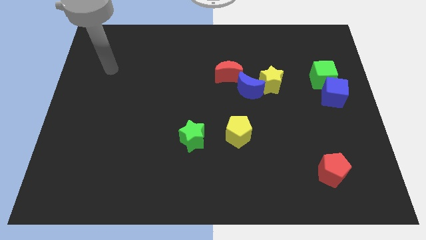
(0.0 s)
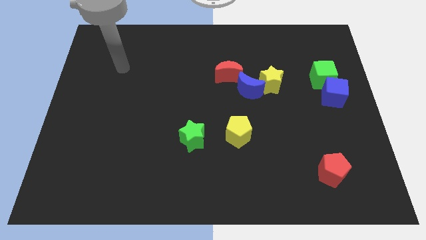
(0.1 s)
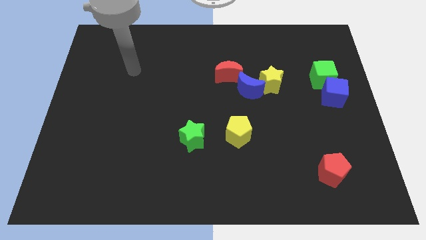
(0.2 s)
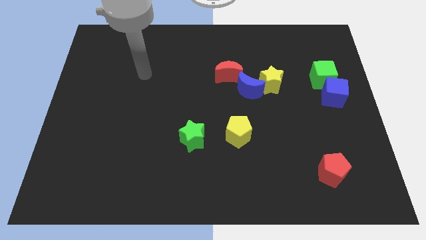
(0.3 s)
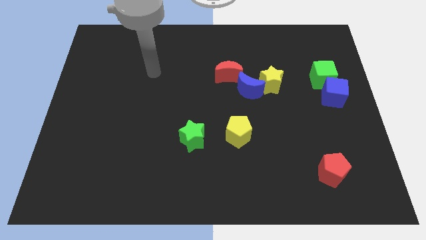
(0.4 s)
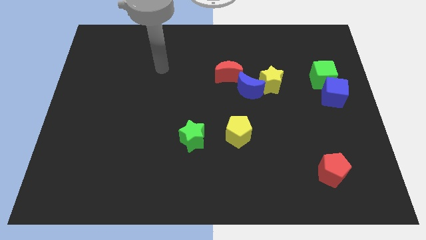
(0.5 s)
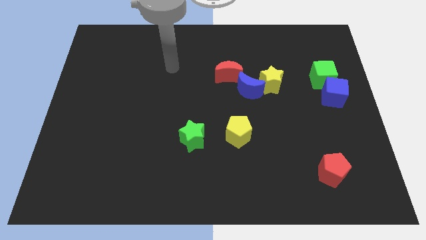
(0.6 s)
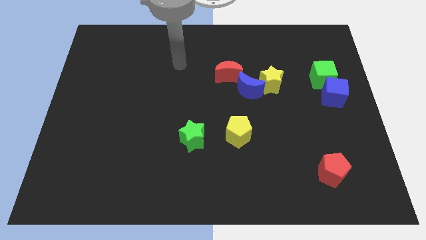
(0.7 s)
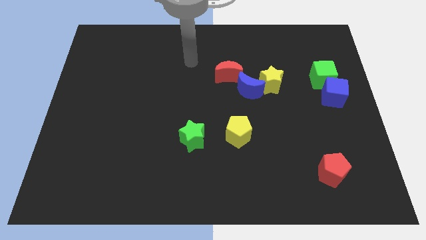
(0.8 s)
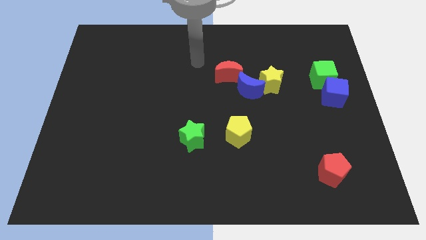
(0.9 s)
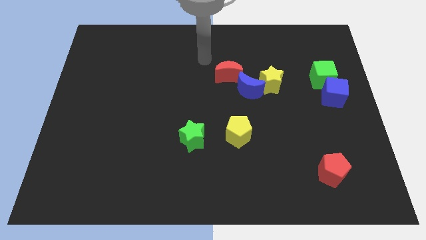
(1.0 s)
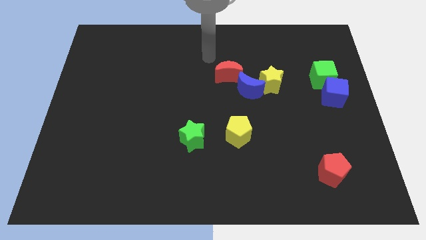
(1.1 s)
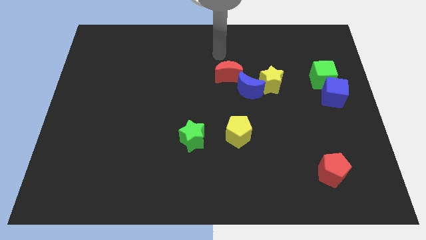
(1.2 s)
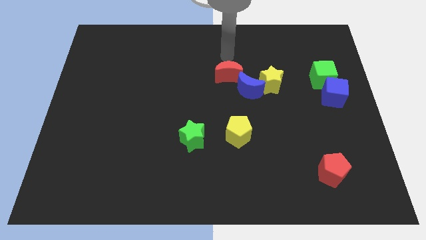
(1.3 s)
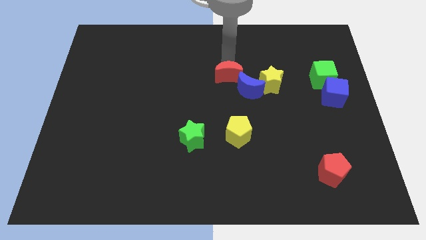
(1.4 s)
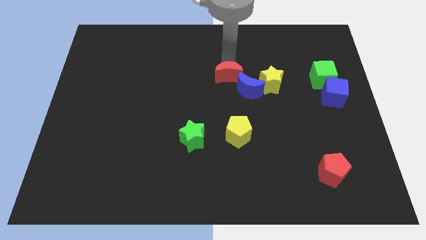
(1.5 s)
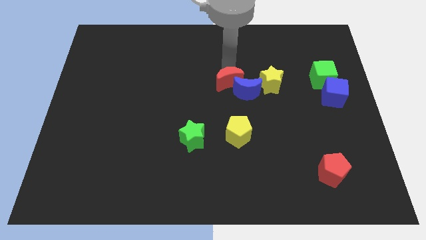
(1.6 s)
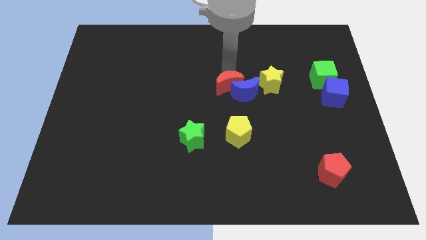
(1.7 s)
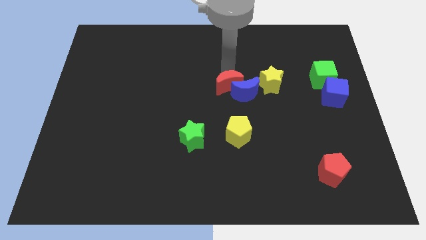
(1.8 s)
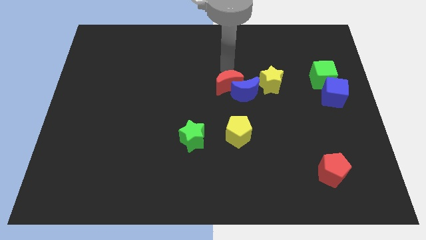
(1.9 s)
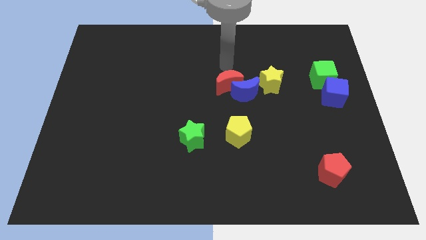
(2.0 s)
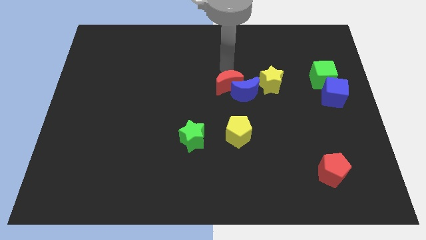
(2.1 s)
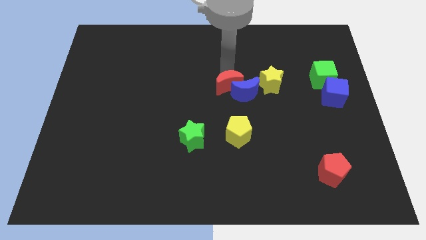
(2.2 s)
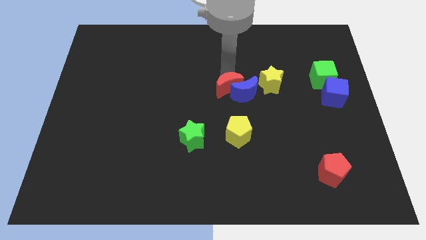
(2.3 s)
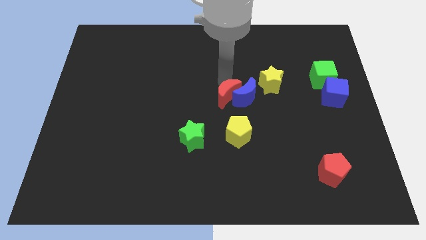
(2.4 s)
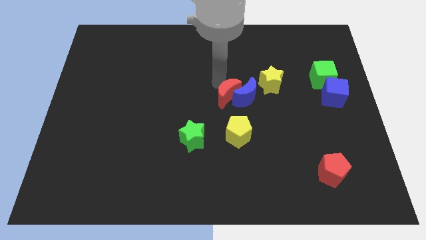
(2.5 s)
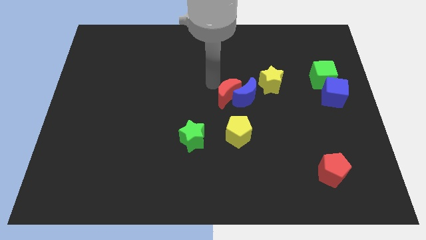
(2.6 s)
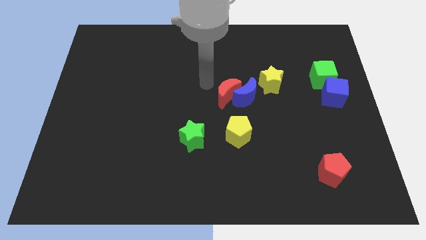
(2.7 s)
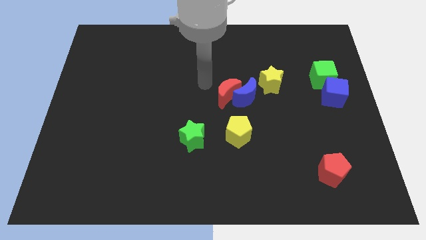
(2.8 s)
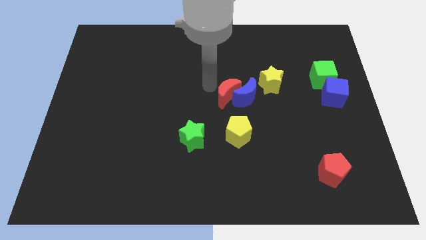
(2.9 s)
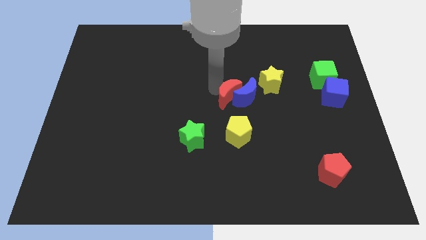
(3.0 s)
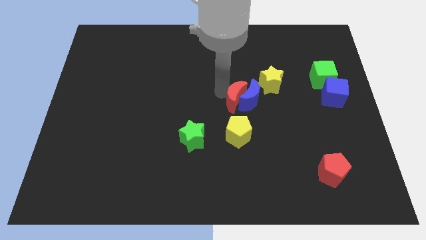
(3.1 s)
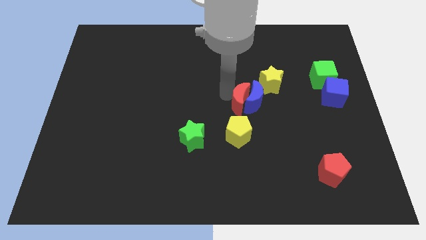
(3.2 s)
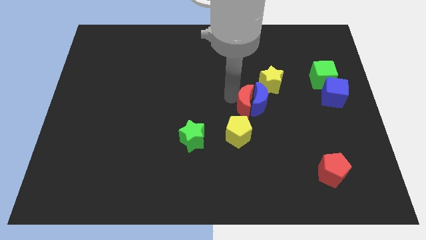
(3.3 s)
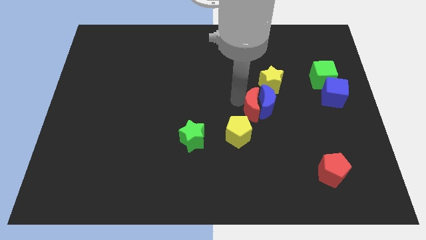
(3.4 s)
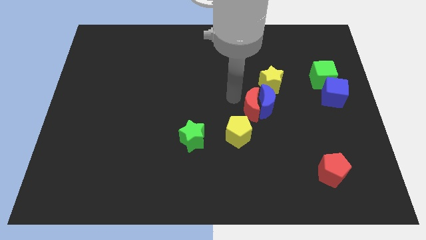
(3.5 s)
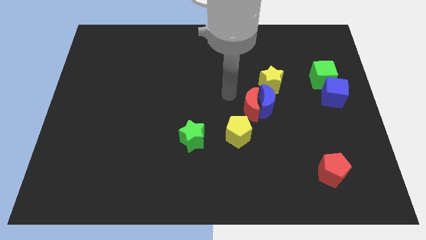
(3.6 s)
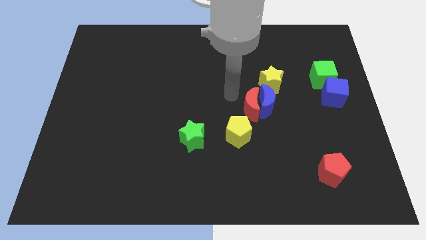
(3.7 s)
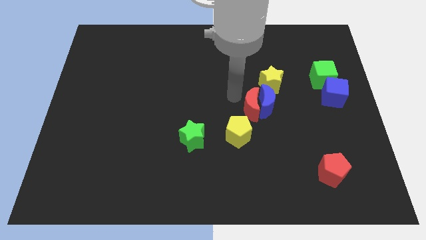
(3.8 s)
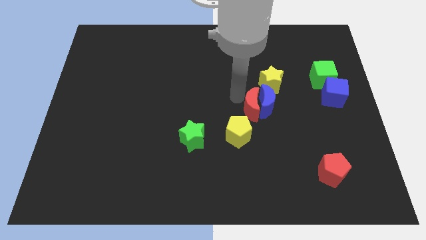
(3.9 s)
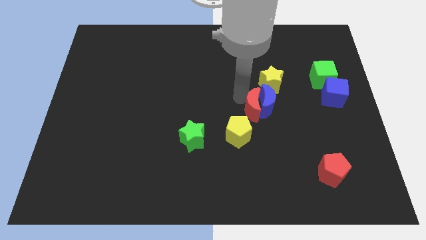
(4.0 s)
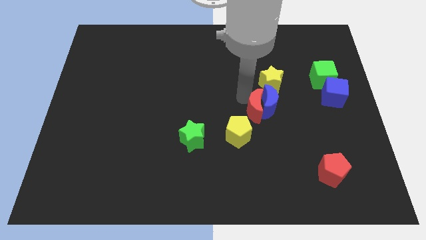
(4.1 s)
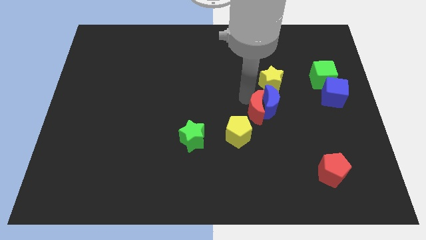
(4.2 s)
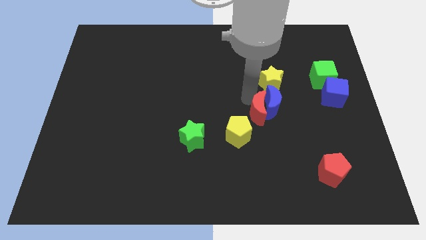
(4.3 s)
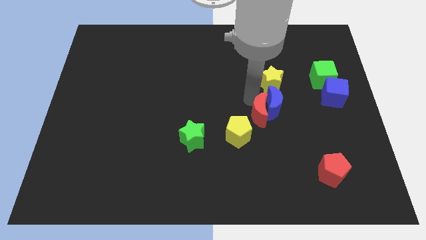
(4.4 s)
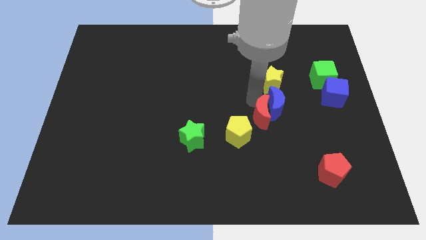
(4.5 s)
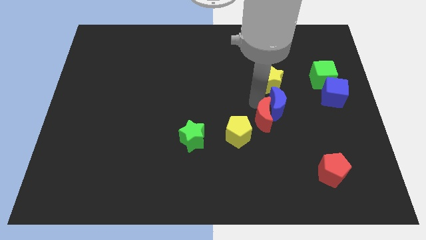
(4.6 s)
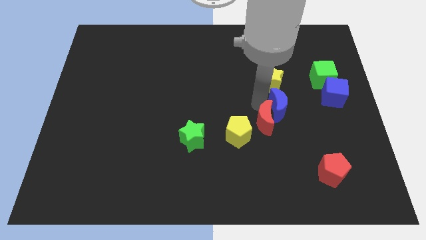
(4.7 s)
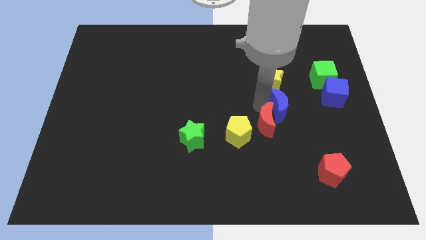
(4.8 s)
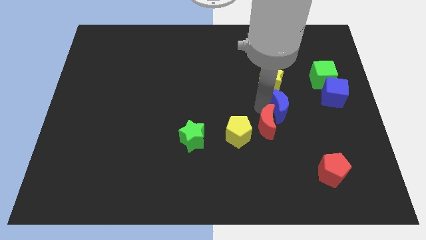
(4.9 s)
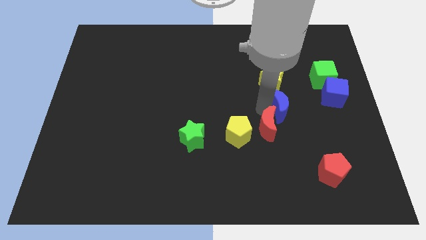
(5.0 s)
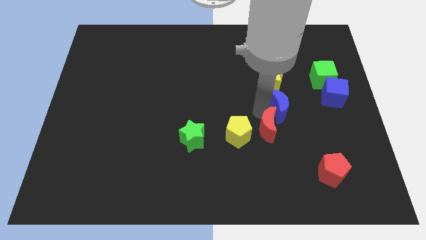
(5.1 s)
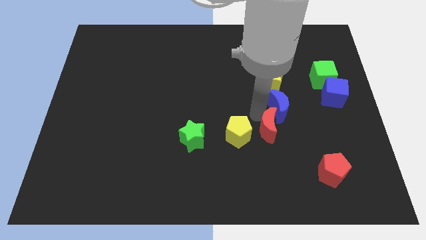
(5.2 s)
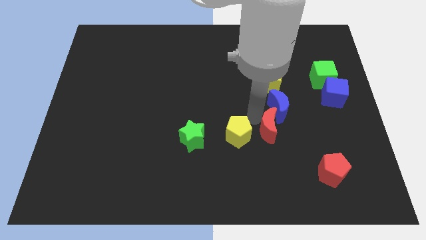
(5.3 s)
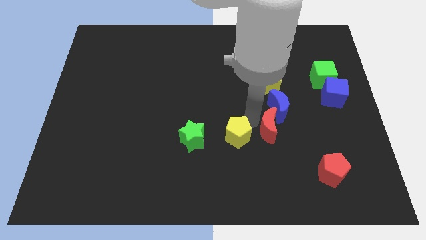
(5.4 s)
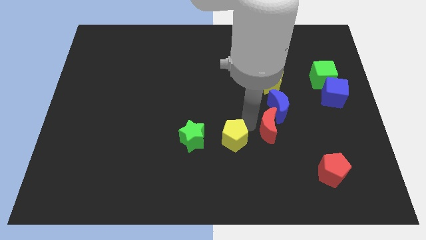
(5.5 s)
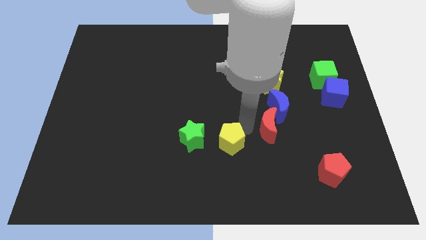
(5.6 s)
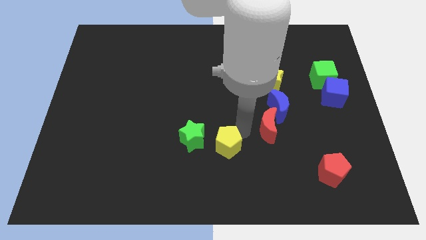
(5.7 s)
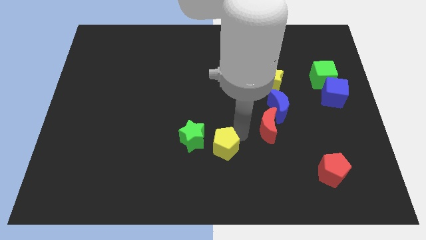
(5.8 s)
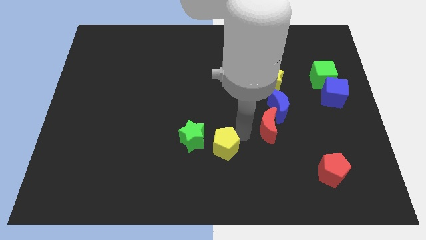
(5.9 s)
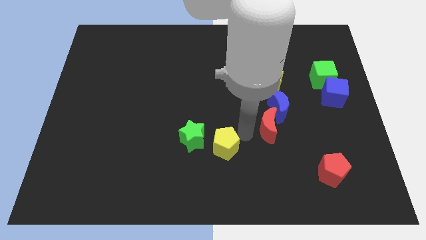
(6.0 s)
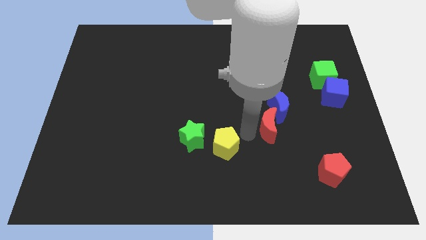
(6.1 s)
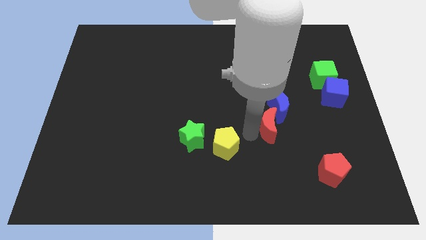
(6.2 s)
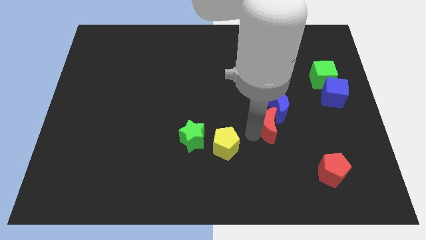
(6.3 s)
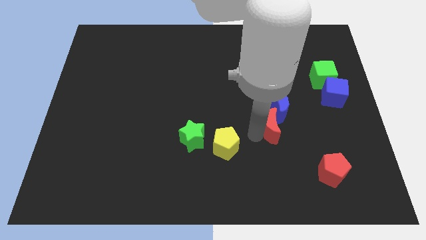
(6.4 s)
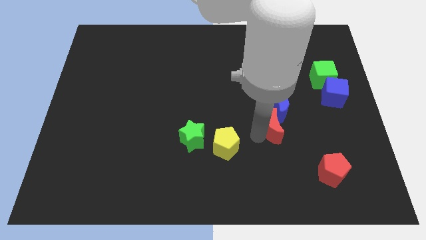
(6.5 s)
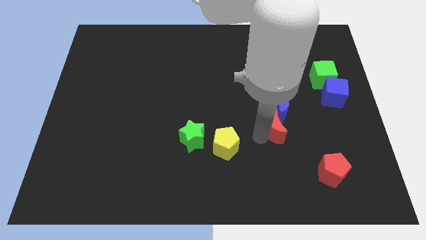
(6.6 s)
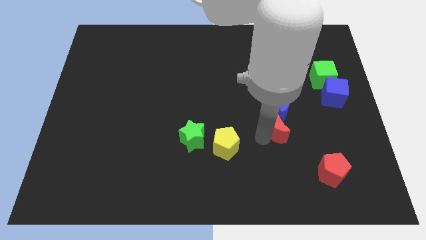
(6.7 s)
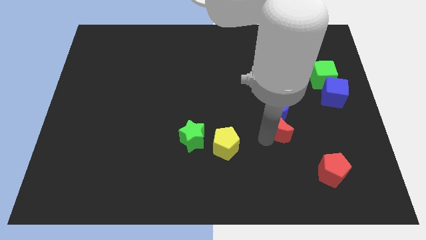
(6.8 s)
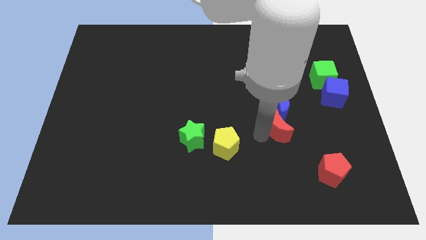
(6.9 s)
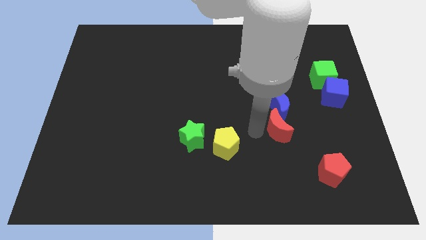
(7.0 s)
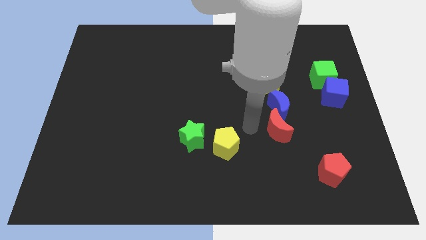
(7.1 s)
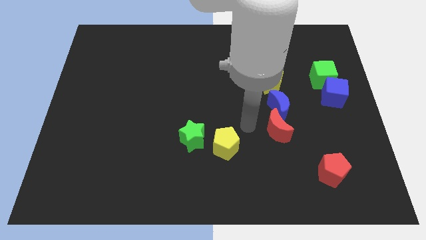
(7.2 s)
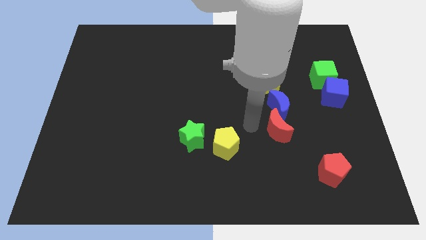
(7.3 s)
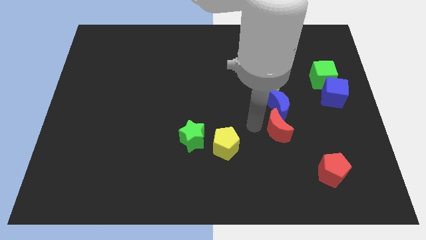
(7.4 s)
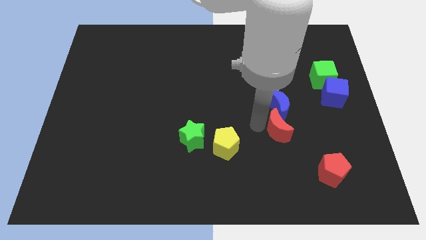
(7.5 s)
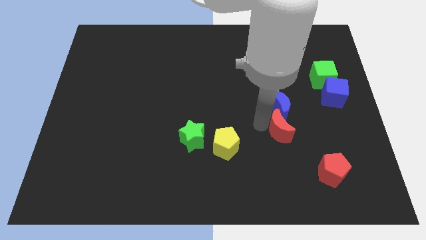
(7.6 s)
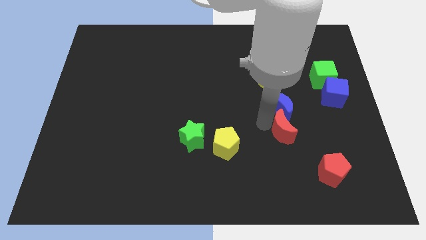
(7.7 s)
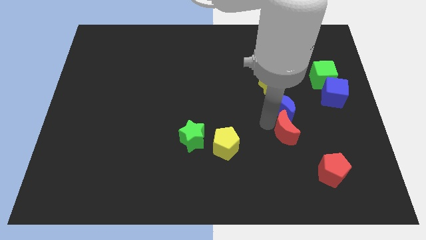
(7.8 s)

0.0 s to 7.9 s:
slide the red moon downwards and right

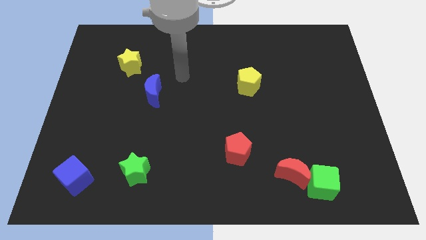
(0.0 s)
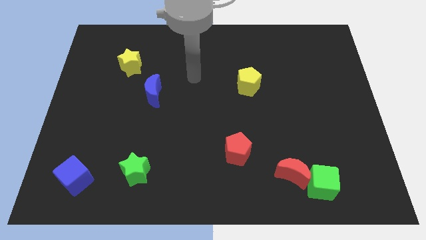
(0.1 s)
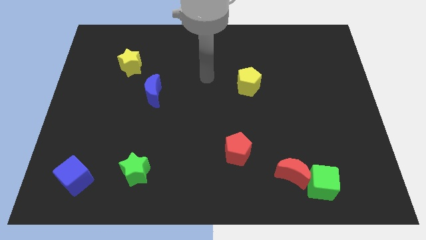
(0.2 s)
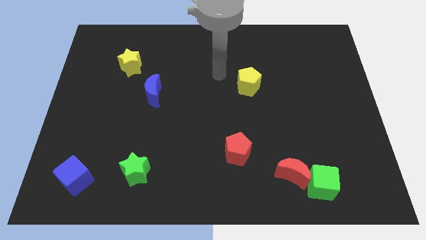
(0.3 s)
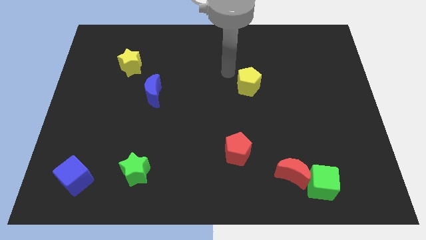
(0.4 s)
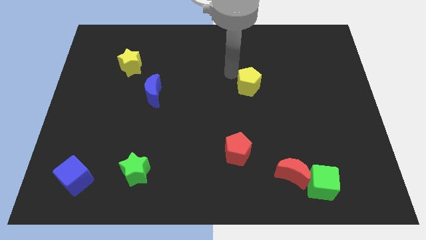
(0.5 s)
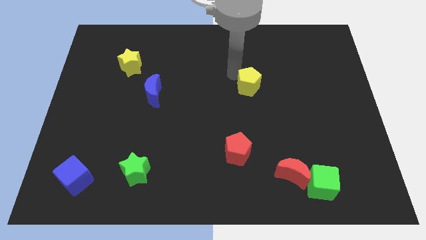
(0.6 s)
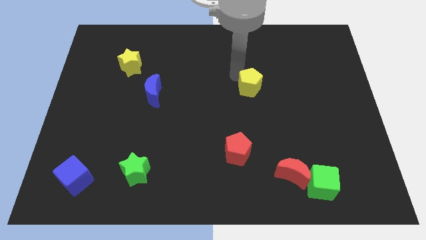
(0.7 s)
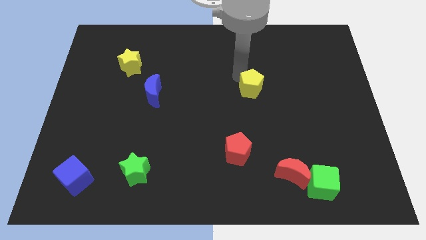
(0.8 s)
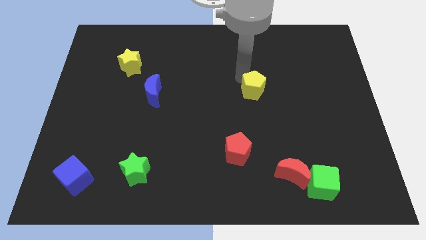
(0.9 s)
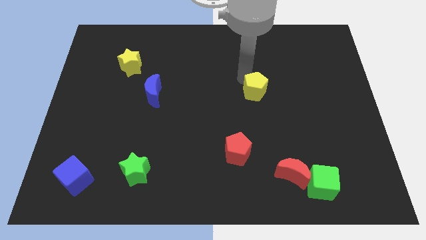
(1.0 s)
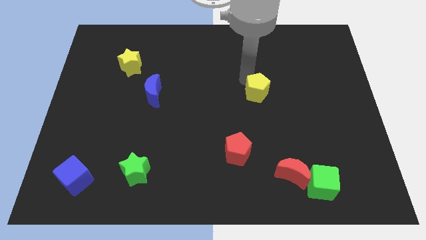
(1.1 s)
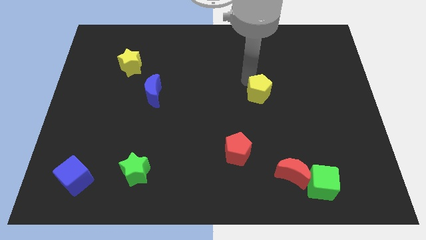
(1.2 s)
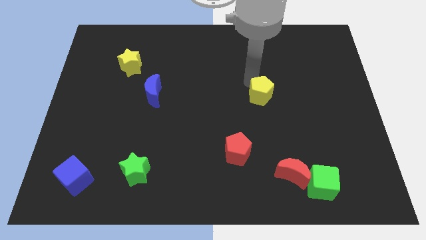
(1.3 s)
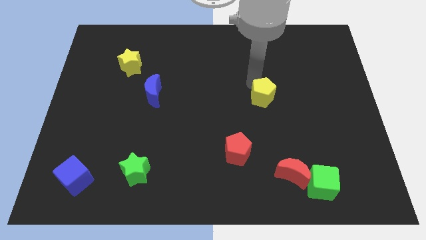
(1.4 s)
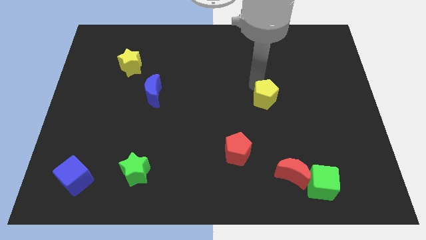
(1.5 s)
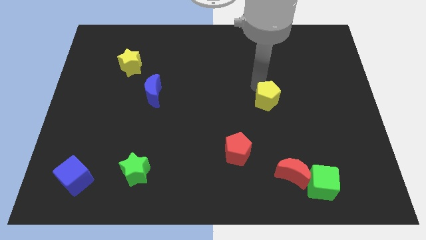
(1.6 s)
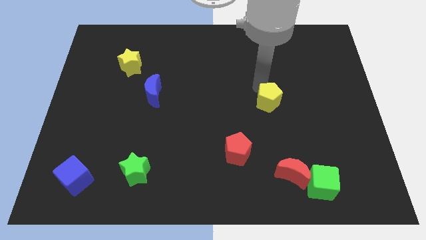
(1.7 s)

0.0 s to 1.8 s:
slide the yellow pentagon somewhat downwards and then to the right
